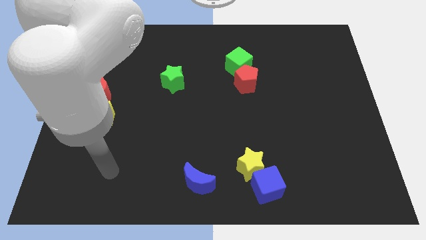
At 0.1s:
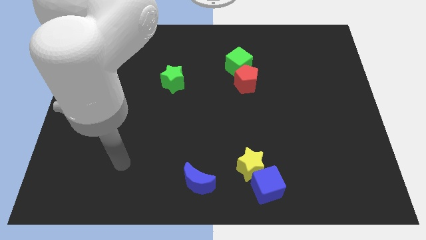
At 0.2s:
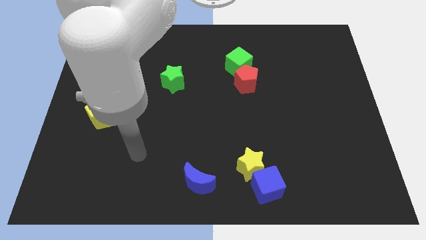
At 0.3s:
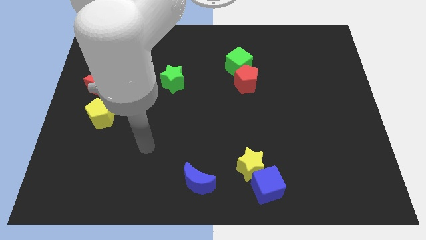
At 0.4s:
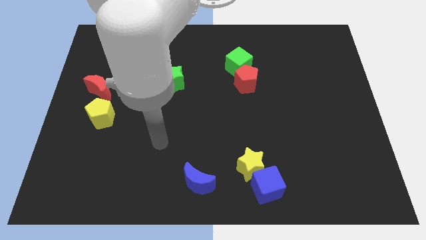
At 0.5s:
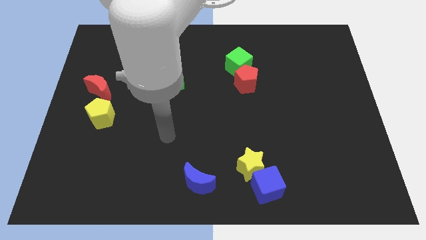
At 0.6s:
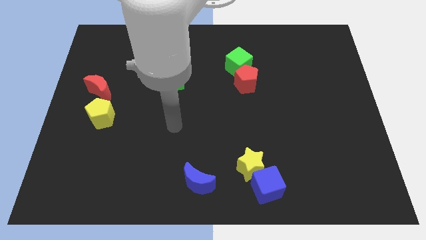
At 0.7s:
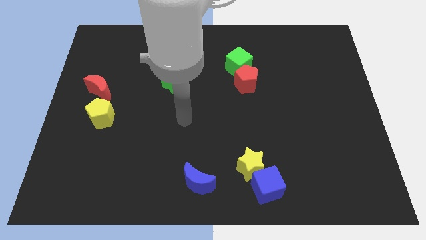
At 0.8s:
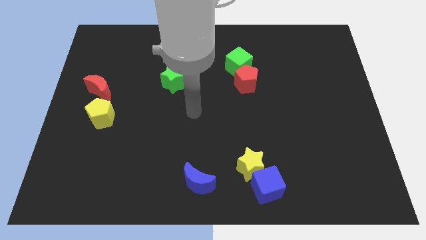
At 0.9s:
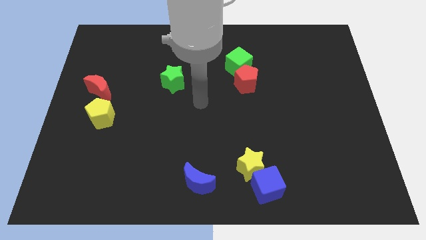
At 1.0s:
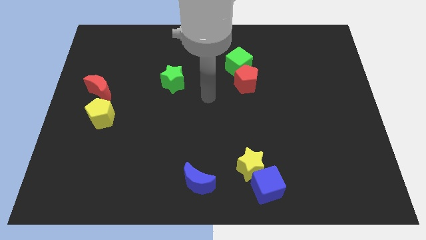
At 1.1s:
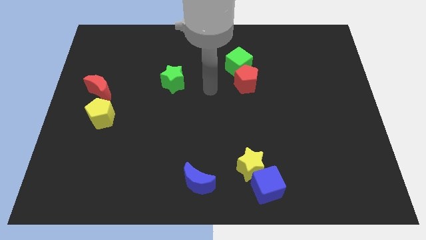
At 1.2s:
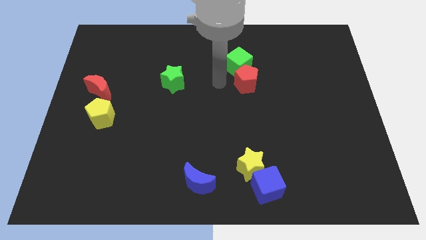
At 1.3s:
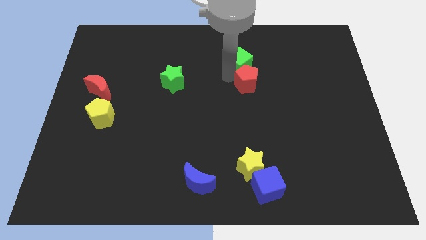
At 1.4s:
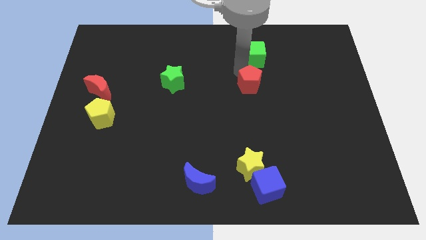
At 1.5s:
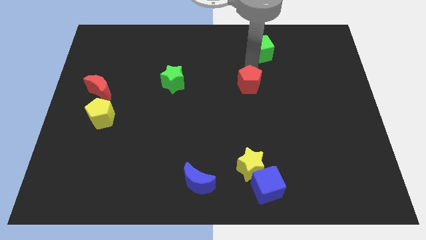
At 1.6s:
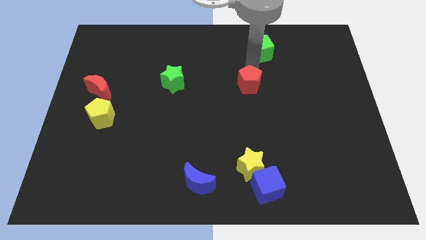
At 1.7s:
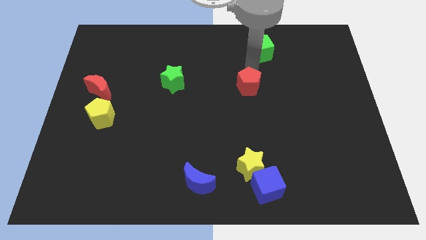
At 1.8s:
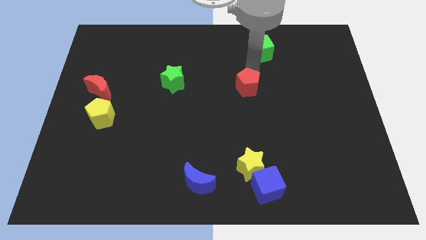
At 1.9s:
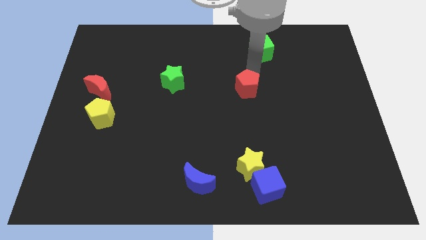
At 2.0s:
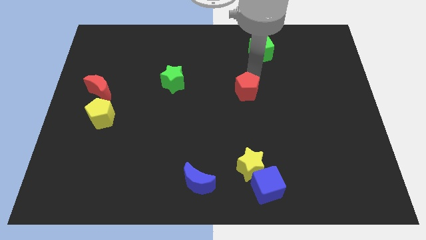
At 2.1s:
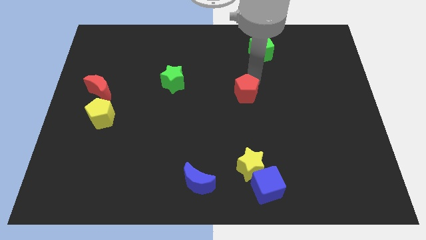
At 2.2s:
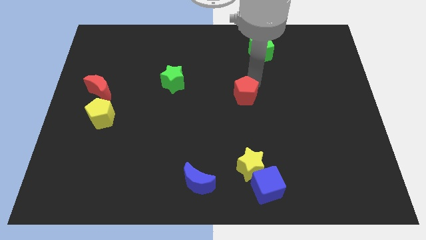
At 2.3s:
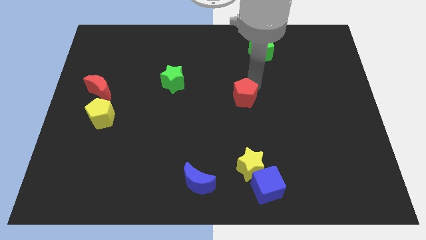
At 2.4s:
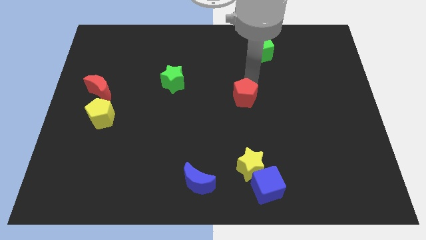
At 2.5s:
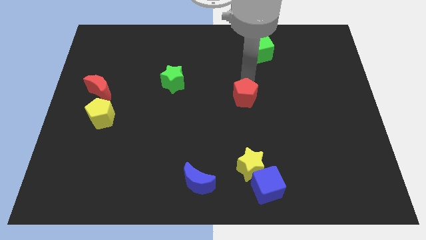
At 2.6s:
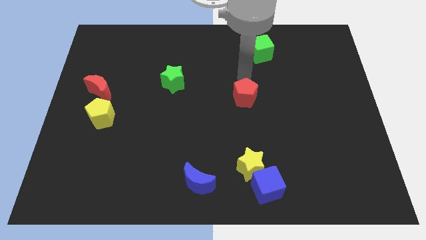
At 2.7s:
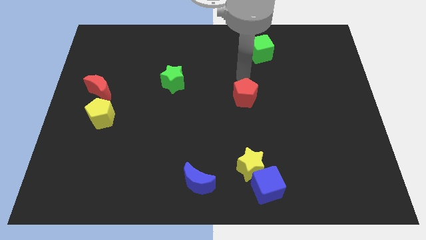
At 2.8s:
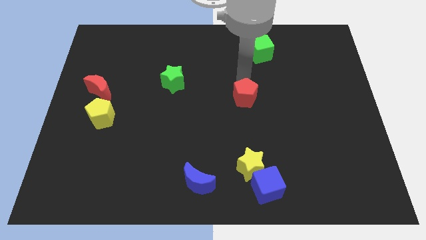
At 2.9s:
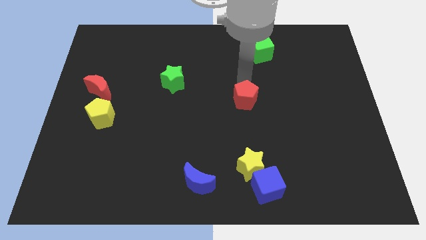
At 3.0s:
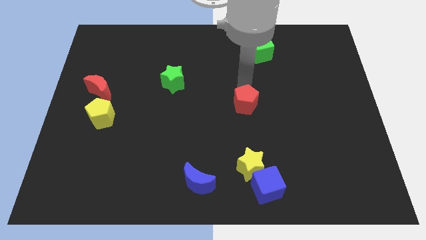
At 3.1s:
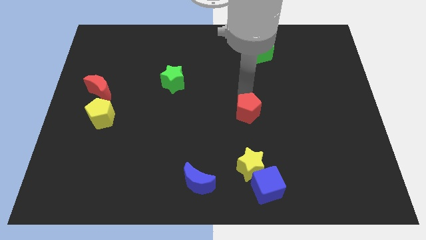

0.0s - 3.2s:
slightly push the red pentagon down

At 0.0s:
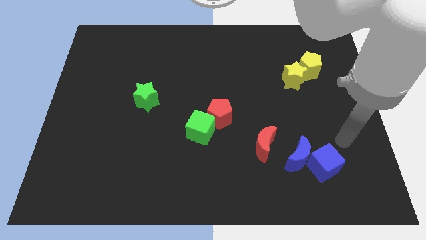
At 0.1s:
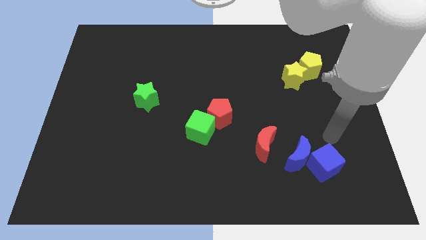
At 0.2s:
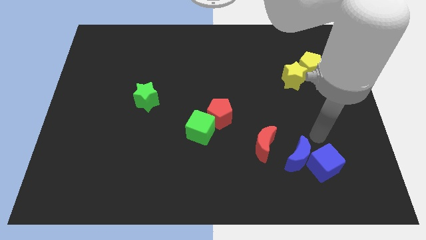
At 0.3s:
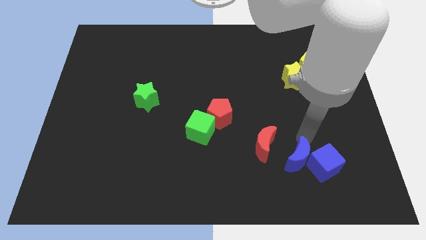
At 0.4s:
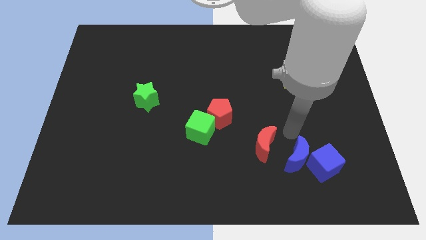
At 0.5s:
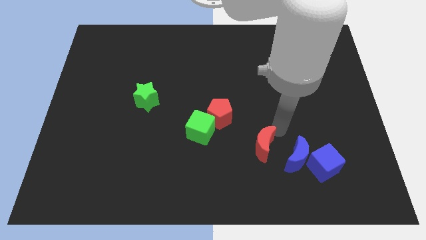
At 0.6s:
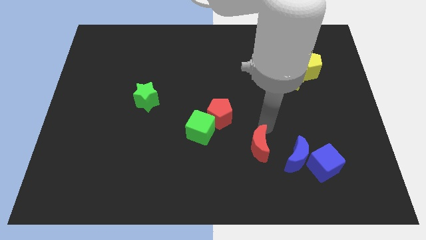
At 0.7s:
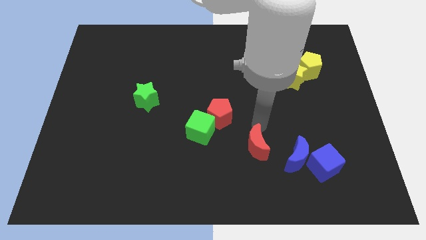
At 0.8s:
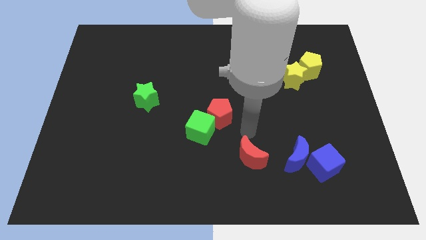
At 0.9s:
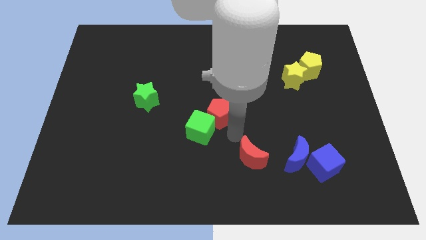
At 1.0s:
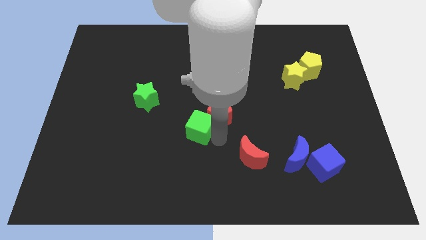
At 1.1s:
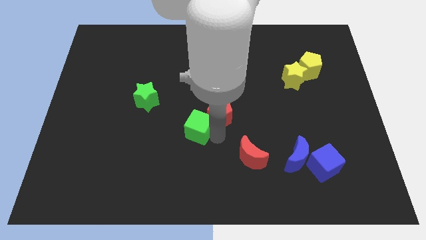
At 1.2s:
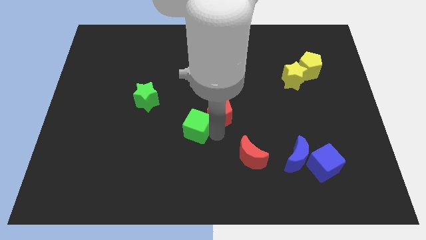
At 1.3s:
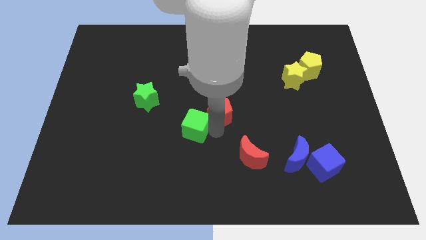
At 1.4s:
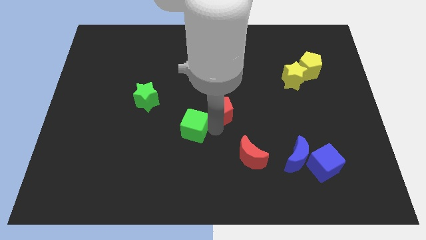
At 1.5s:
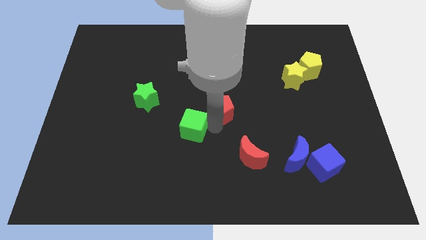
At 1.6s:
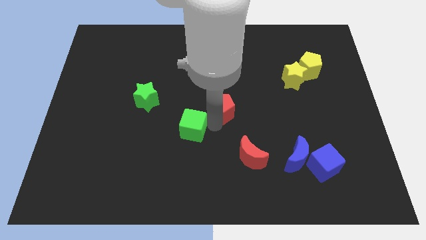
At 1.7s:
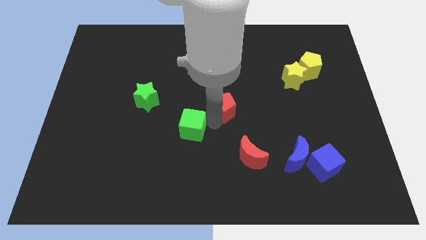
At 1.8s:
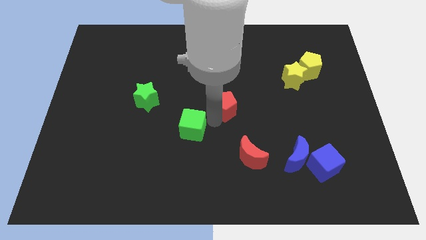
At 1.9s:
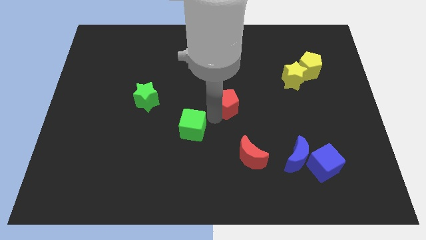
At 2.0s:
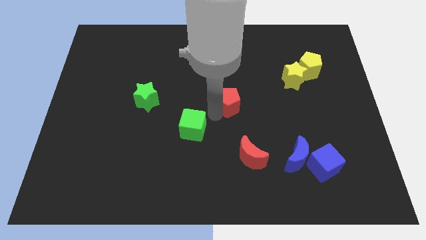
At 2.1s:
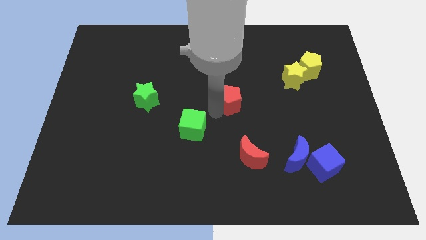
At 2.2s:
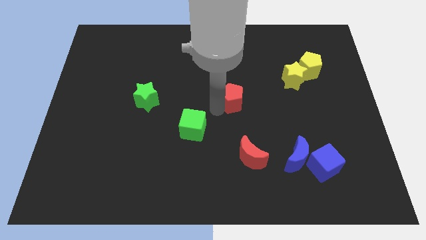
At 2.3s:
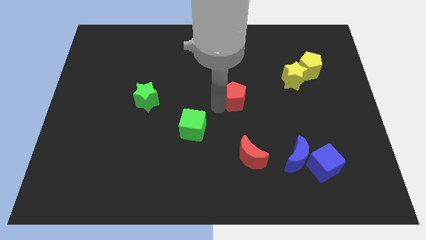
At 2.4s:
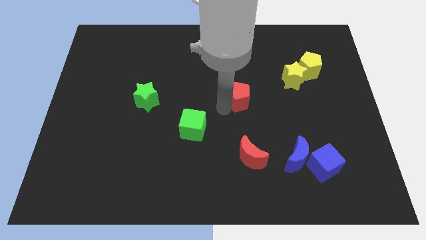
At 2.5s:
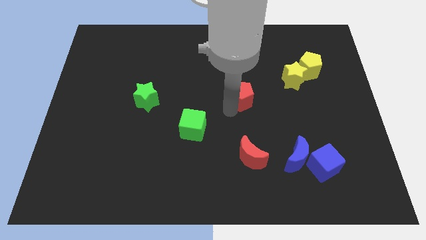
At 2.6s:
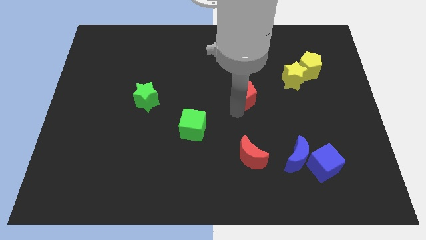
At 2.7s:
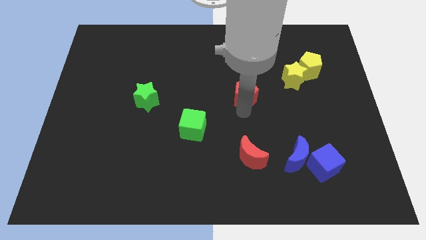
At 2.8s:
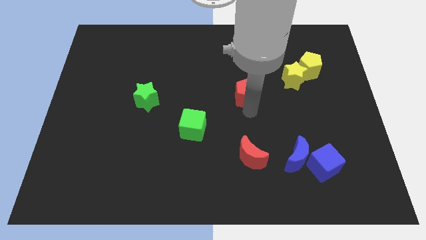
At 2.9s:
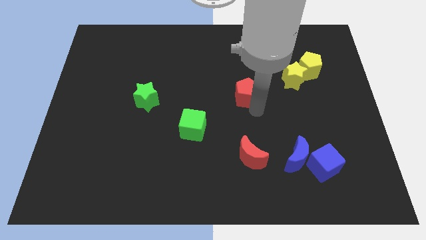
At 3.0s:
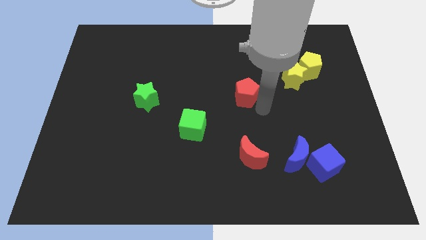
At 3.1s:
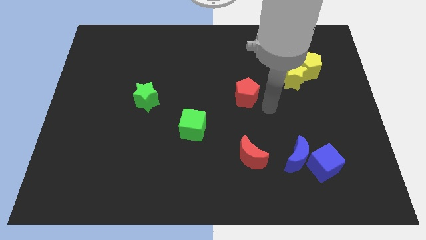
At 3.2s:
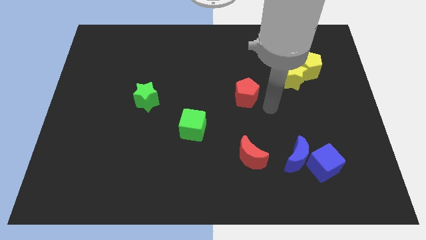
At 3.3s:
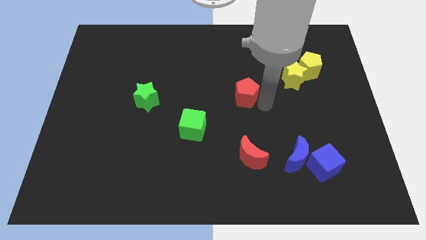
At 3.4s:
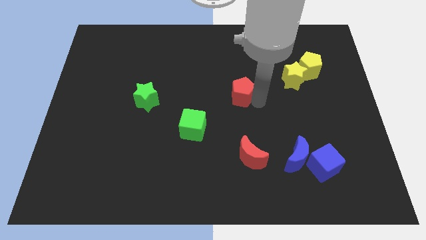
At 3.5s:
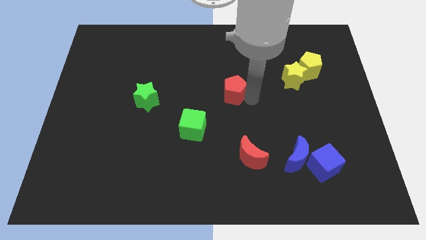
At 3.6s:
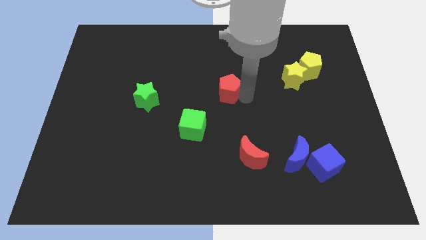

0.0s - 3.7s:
move the red pentagon upwards a bit

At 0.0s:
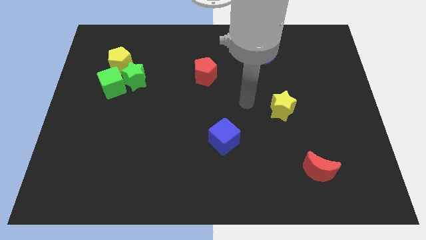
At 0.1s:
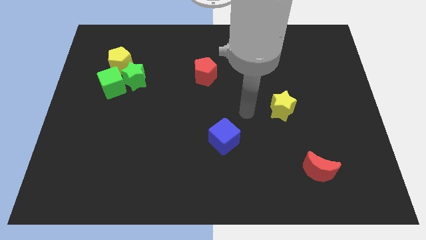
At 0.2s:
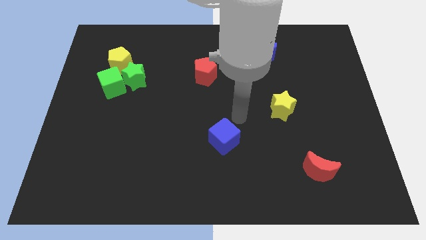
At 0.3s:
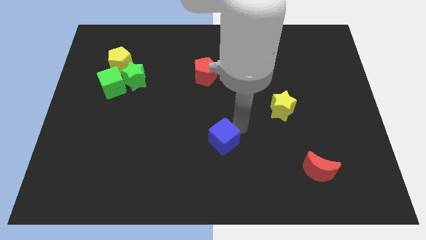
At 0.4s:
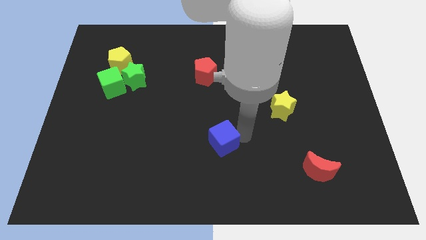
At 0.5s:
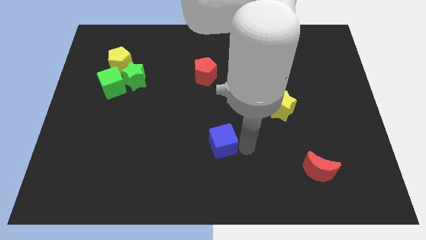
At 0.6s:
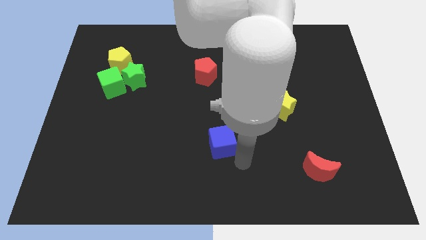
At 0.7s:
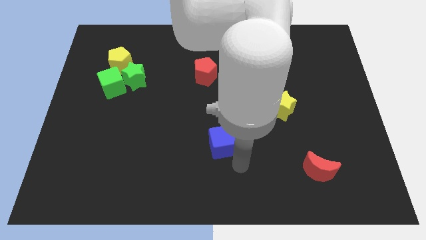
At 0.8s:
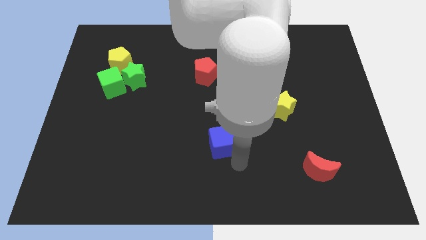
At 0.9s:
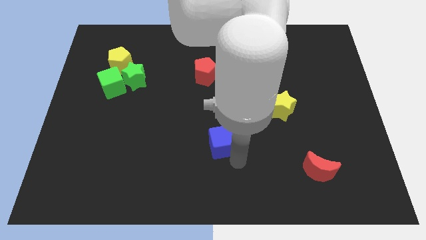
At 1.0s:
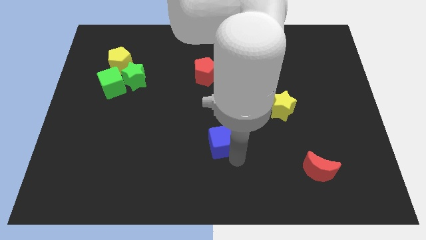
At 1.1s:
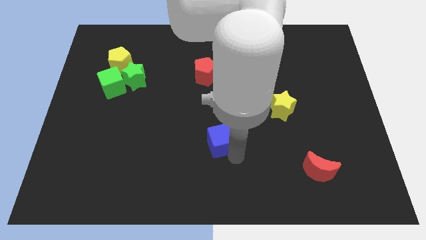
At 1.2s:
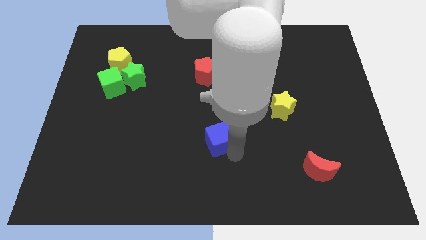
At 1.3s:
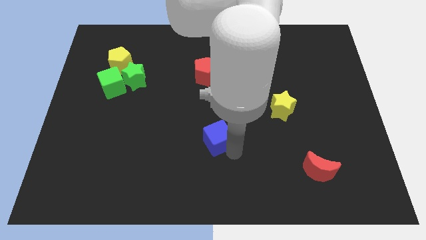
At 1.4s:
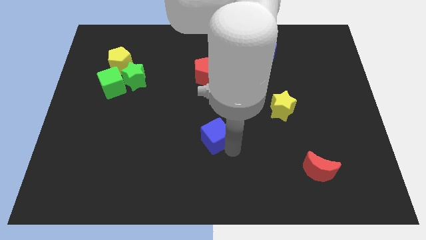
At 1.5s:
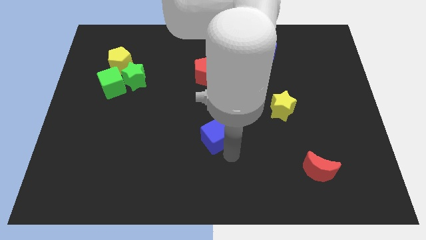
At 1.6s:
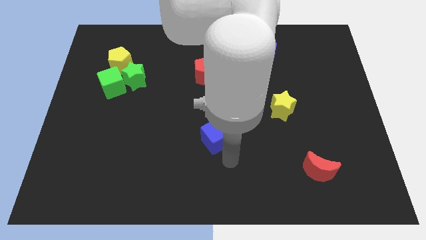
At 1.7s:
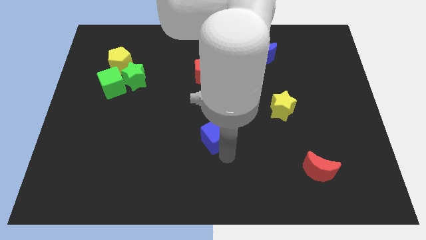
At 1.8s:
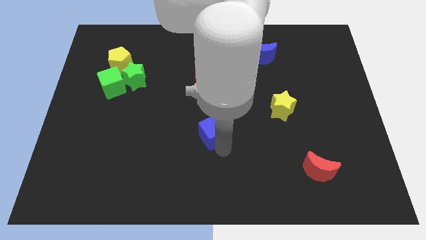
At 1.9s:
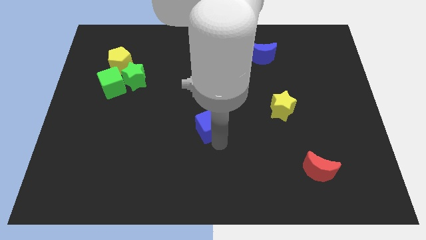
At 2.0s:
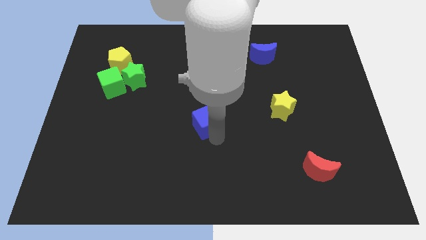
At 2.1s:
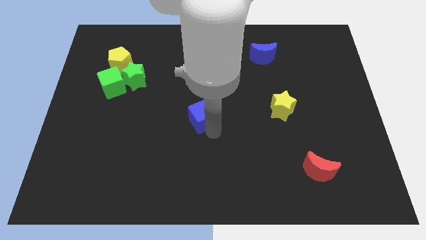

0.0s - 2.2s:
slide the blue cube upwards and then left a bit
